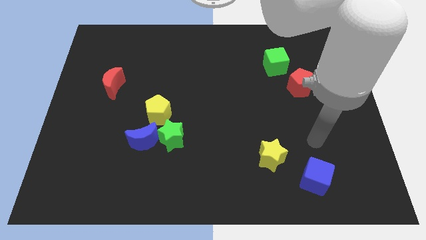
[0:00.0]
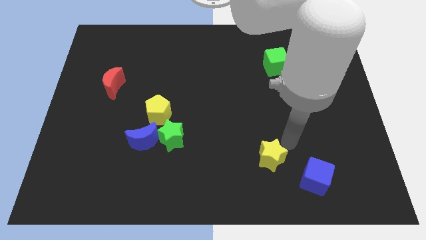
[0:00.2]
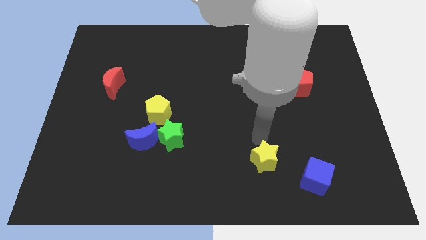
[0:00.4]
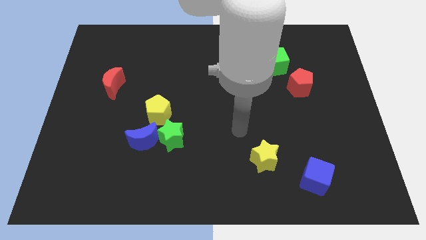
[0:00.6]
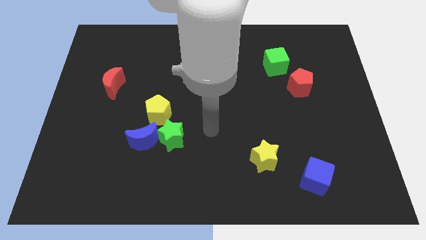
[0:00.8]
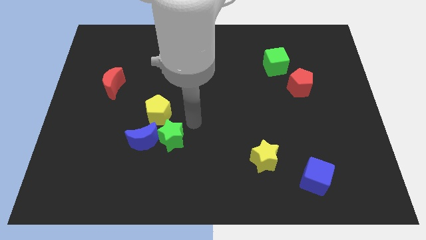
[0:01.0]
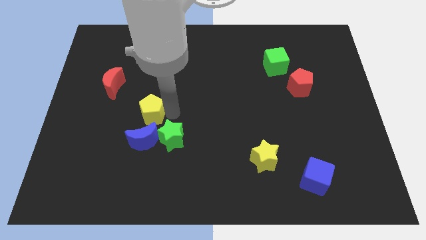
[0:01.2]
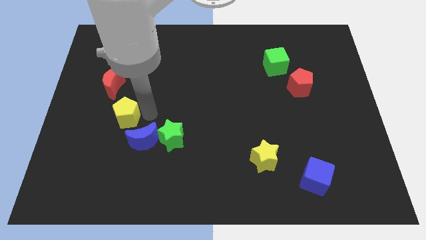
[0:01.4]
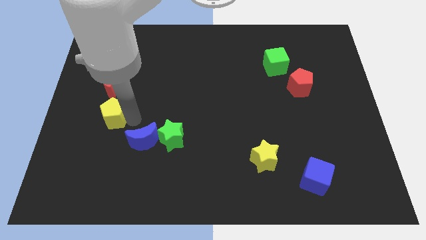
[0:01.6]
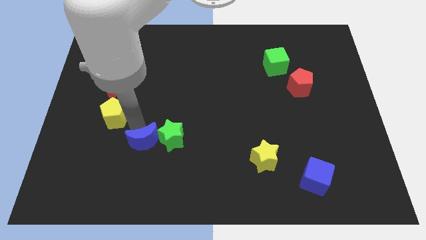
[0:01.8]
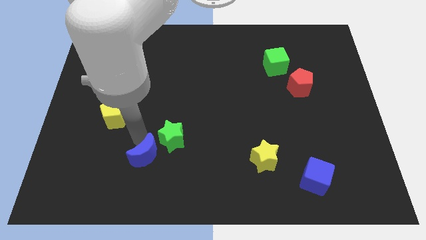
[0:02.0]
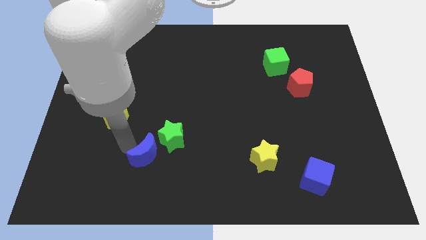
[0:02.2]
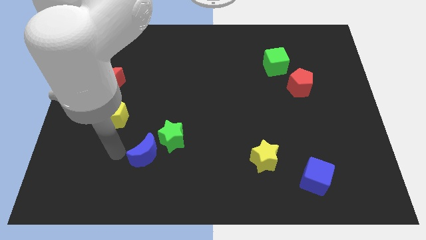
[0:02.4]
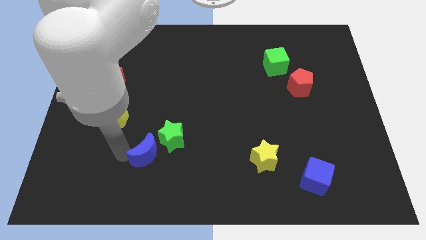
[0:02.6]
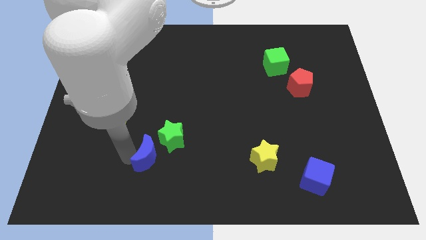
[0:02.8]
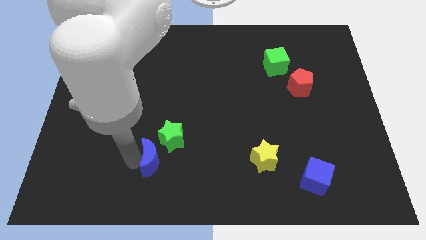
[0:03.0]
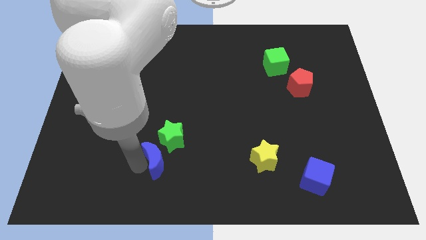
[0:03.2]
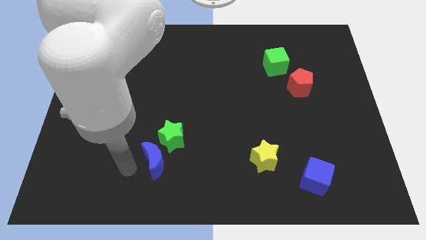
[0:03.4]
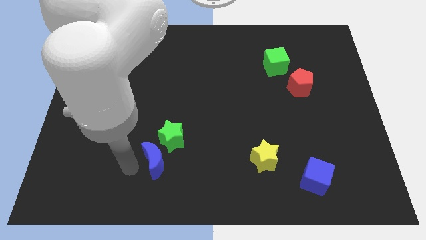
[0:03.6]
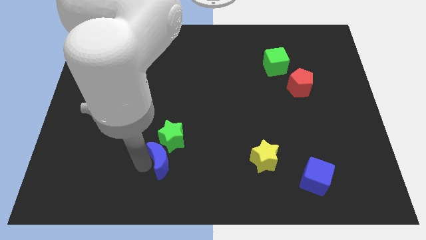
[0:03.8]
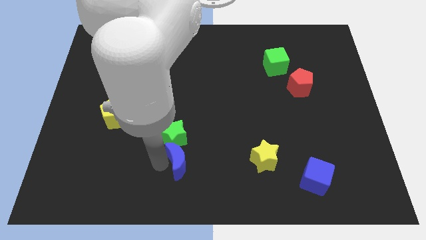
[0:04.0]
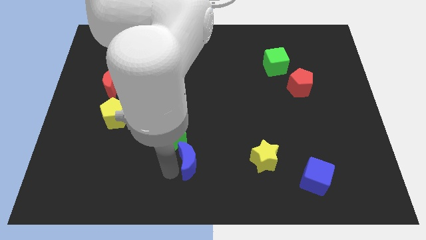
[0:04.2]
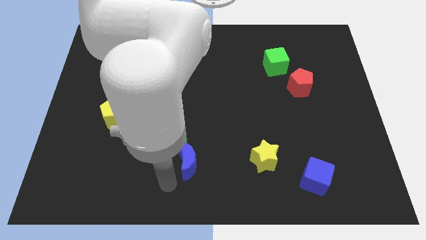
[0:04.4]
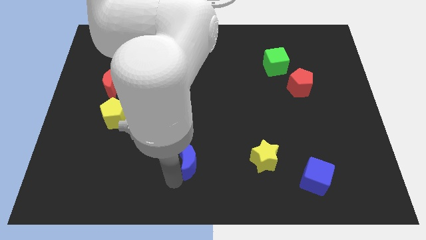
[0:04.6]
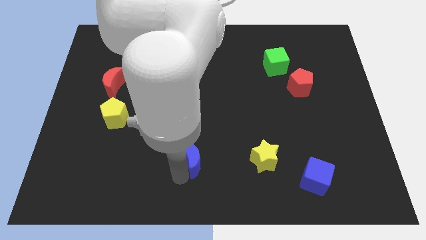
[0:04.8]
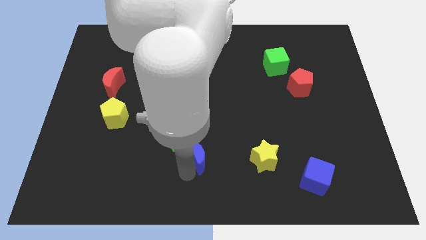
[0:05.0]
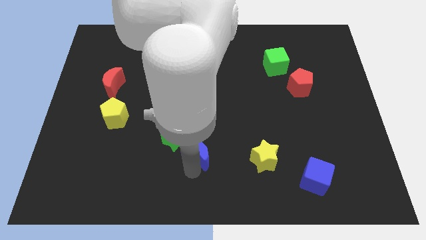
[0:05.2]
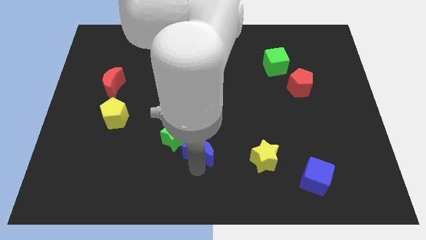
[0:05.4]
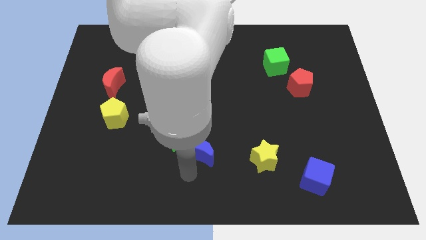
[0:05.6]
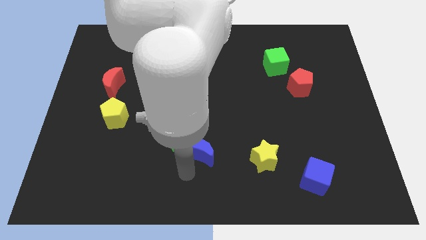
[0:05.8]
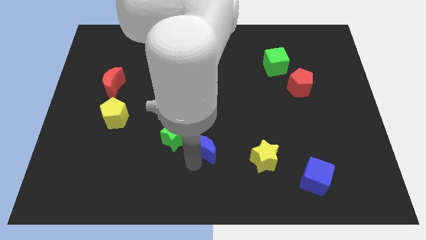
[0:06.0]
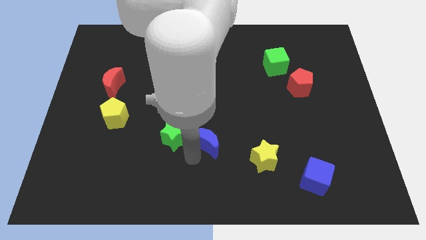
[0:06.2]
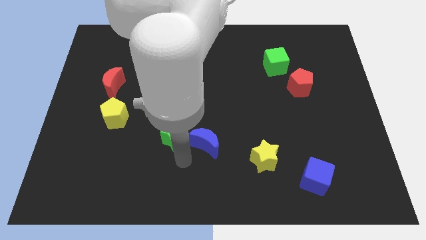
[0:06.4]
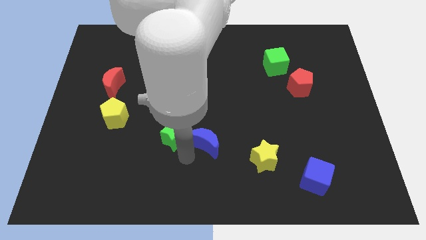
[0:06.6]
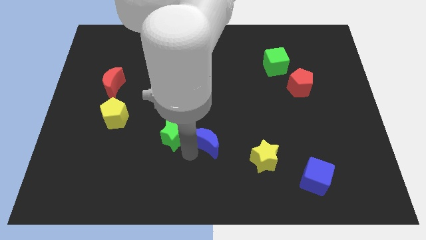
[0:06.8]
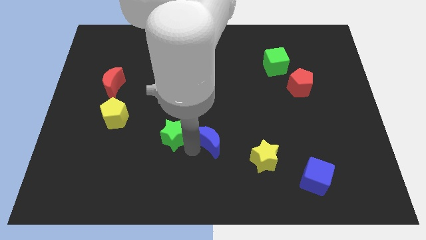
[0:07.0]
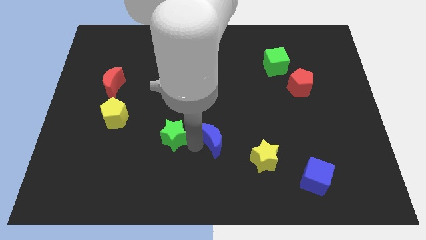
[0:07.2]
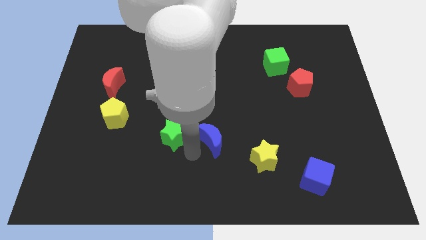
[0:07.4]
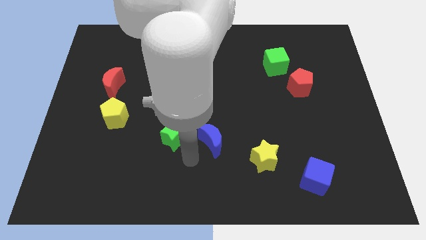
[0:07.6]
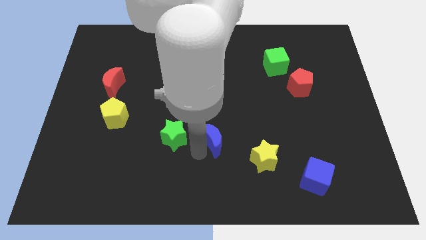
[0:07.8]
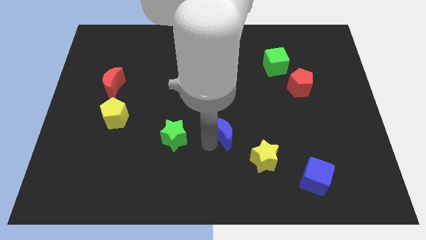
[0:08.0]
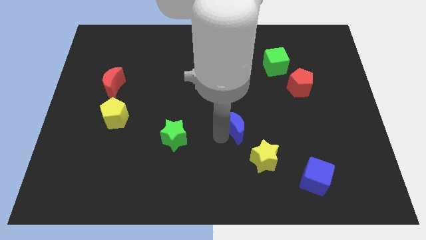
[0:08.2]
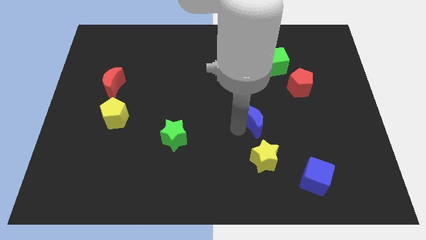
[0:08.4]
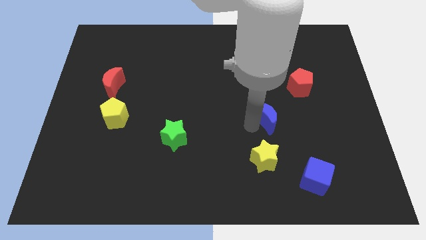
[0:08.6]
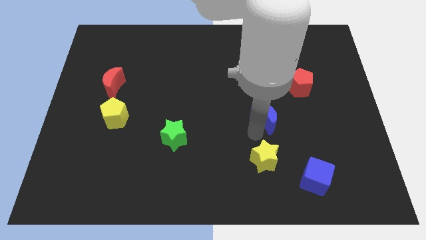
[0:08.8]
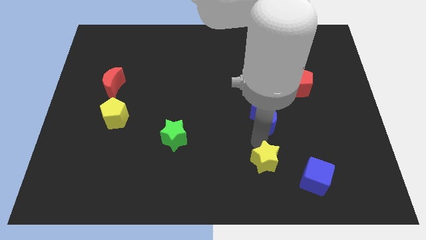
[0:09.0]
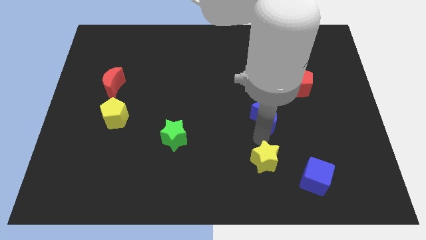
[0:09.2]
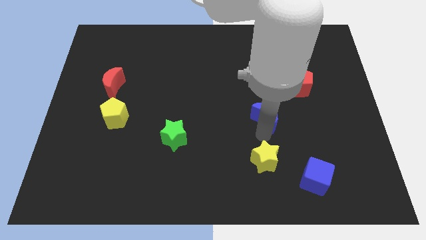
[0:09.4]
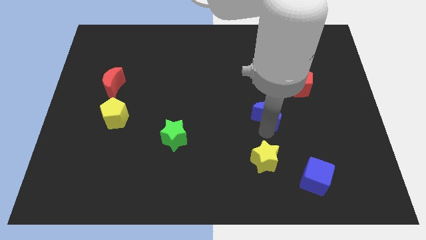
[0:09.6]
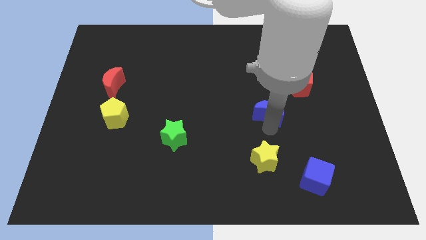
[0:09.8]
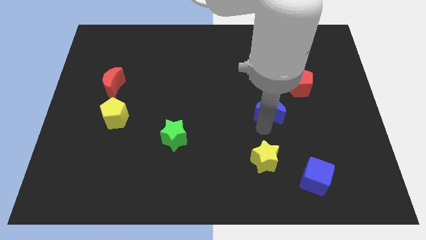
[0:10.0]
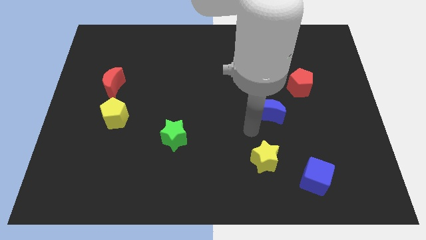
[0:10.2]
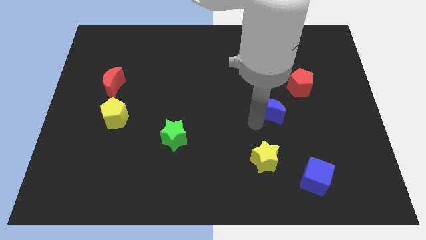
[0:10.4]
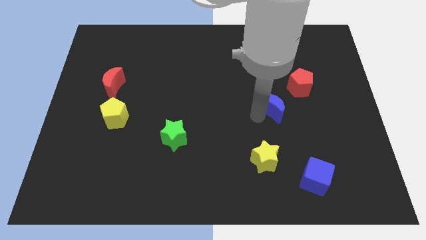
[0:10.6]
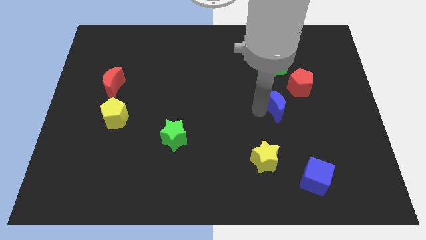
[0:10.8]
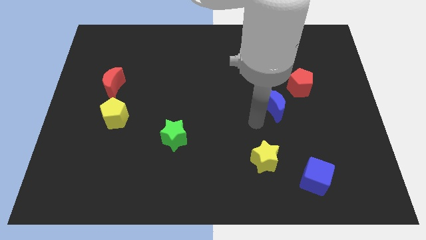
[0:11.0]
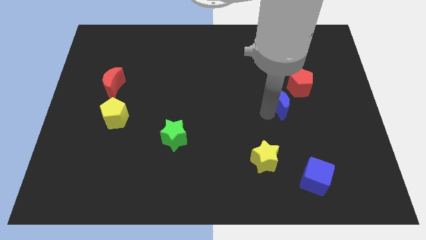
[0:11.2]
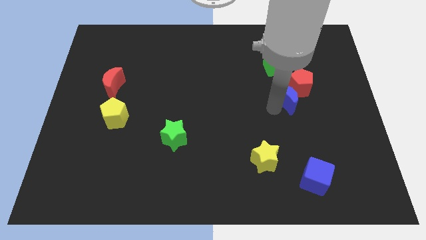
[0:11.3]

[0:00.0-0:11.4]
move the blue moon towards the red pentagon
